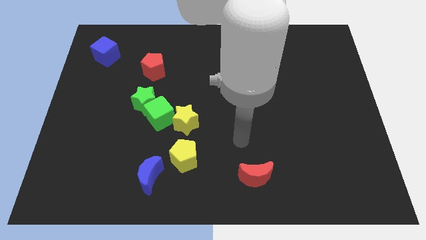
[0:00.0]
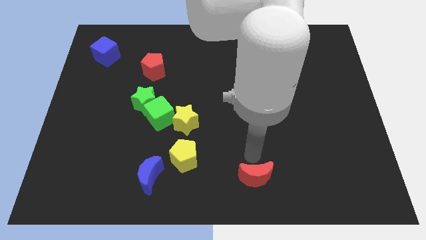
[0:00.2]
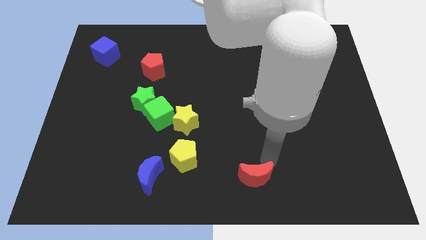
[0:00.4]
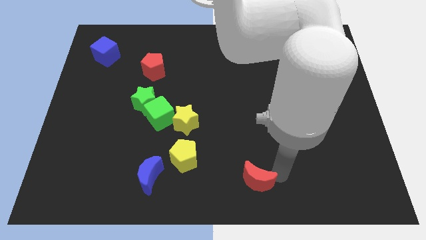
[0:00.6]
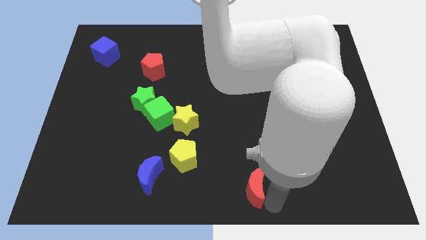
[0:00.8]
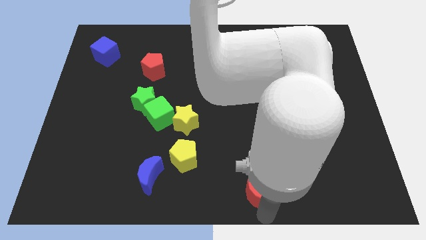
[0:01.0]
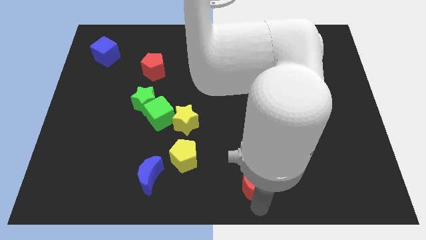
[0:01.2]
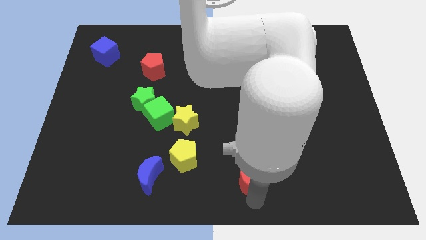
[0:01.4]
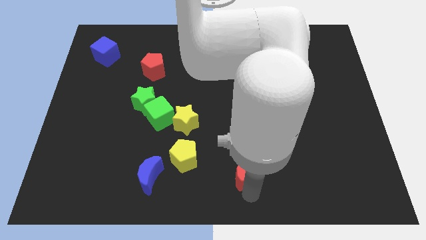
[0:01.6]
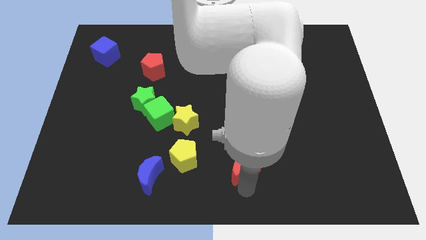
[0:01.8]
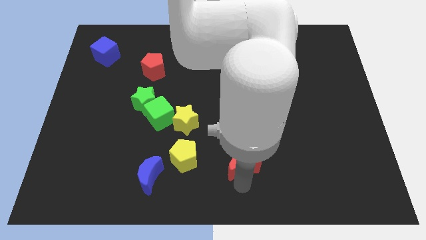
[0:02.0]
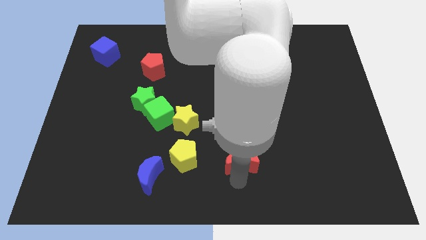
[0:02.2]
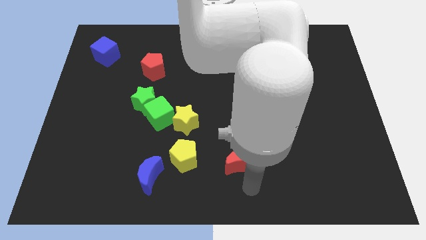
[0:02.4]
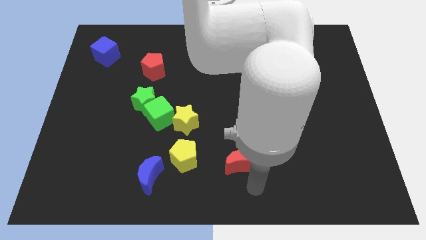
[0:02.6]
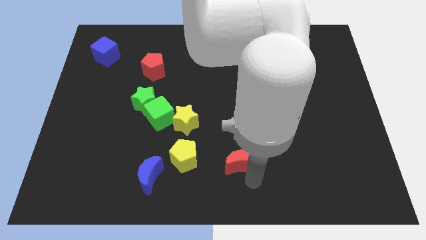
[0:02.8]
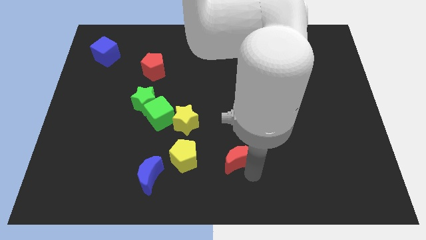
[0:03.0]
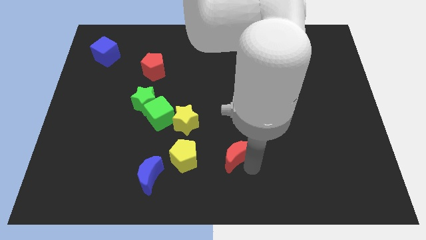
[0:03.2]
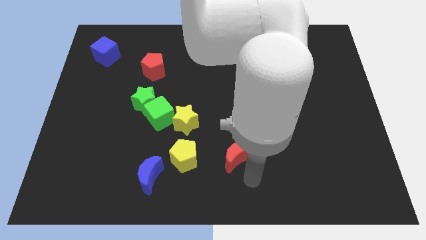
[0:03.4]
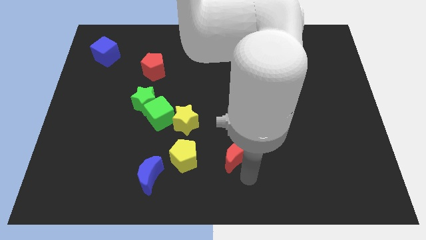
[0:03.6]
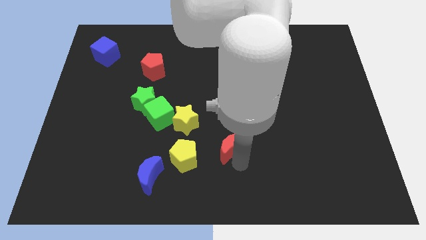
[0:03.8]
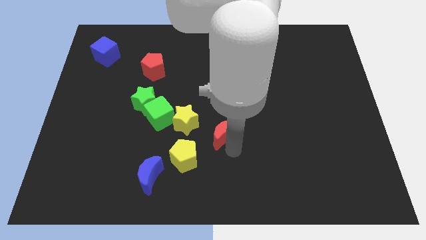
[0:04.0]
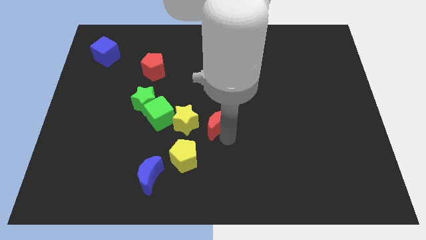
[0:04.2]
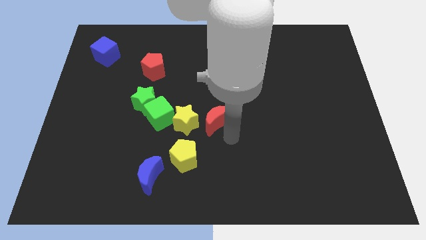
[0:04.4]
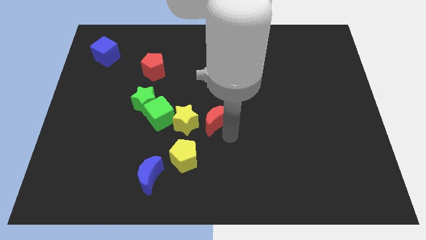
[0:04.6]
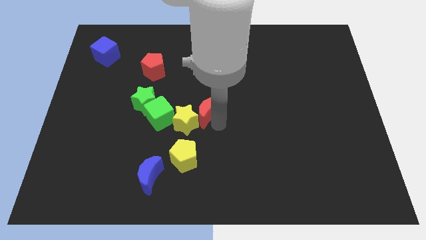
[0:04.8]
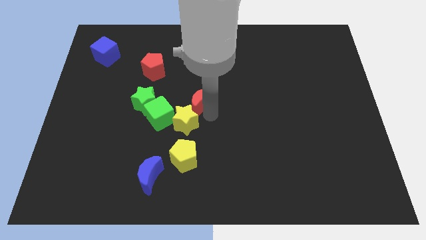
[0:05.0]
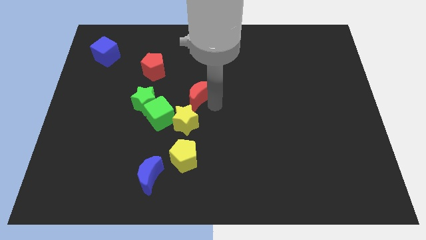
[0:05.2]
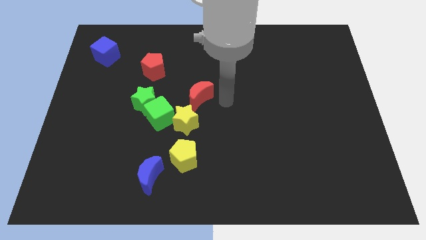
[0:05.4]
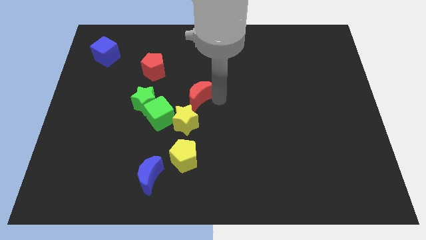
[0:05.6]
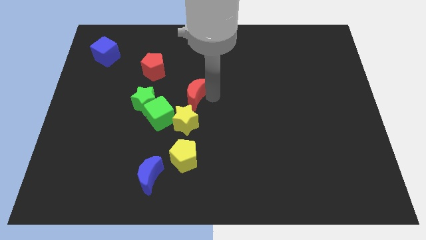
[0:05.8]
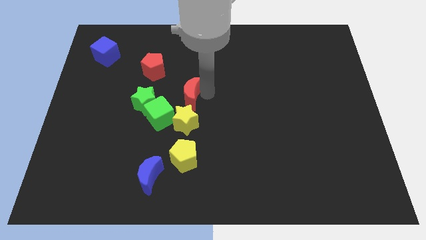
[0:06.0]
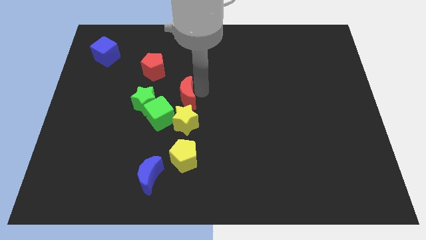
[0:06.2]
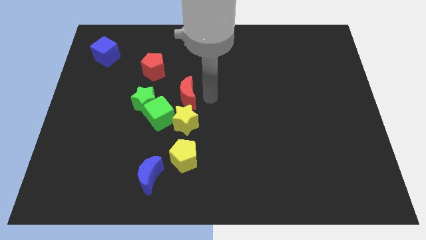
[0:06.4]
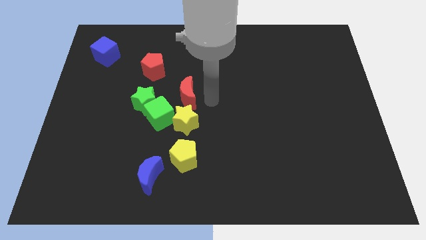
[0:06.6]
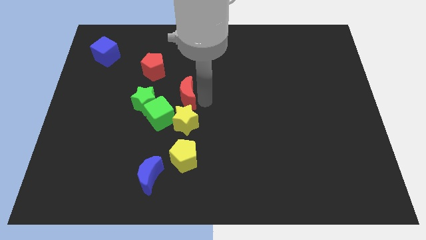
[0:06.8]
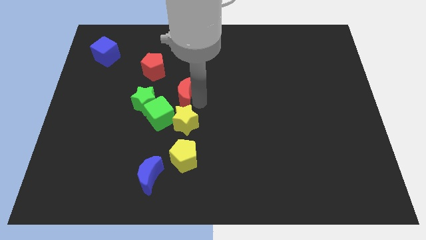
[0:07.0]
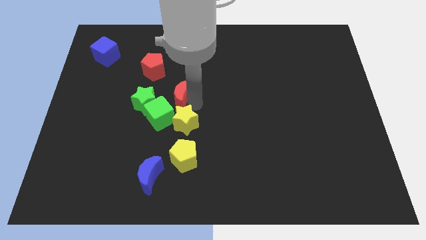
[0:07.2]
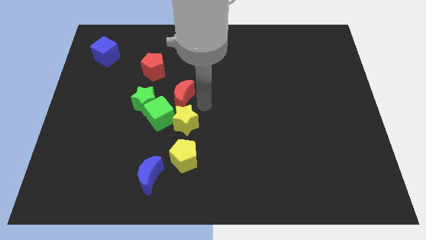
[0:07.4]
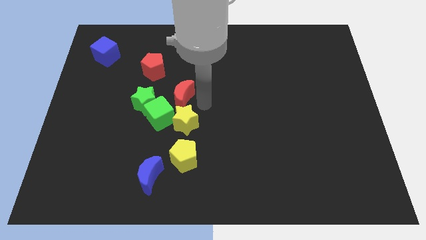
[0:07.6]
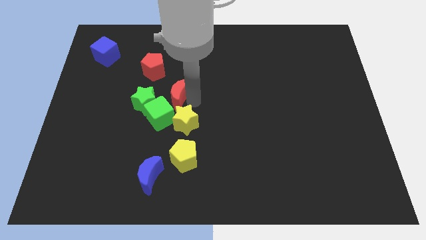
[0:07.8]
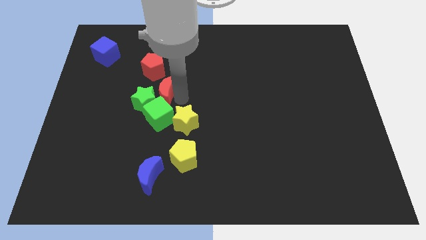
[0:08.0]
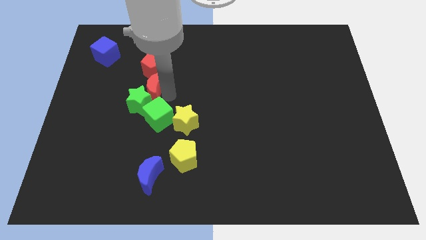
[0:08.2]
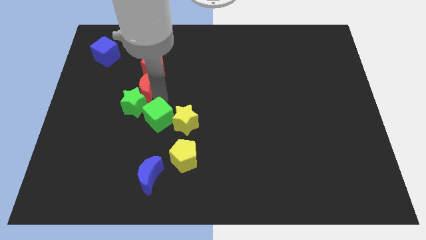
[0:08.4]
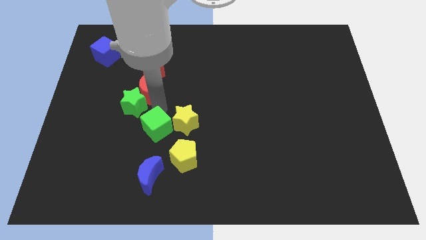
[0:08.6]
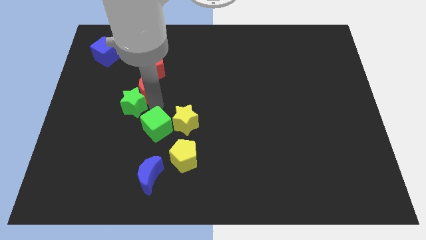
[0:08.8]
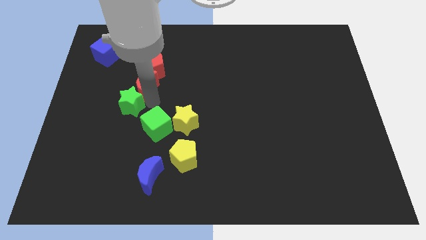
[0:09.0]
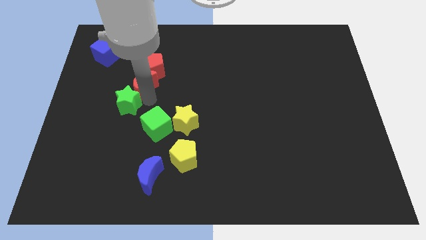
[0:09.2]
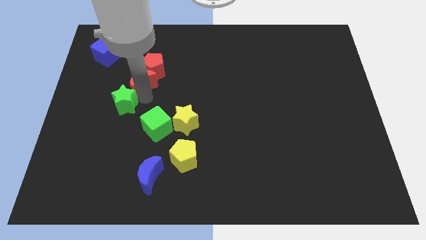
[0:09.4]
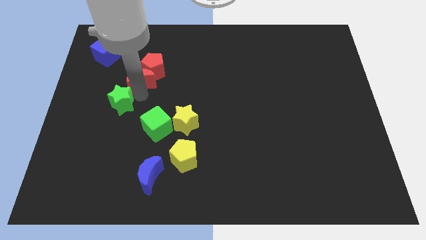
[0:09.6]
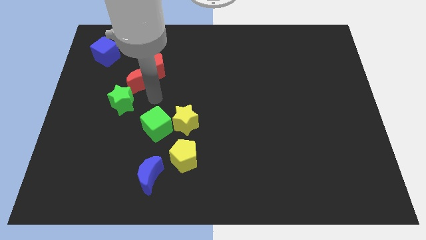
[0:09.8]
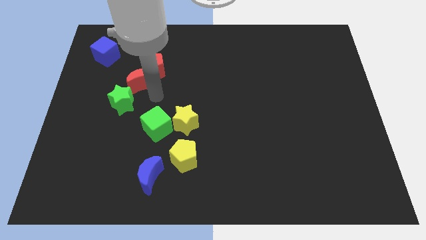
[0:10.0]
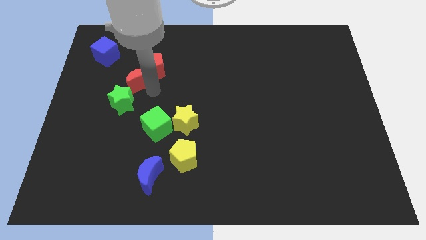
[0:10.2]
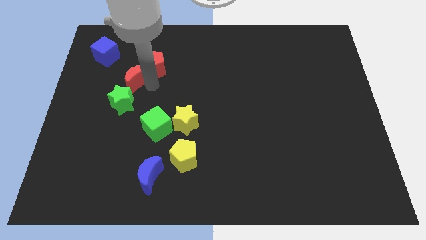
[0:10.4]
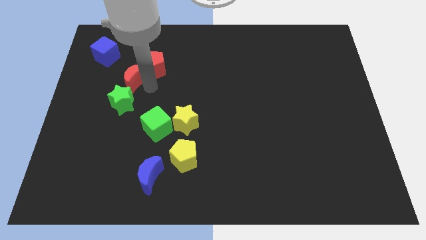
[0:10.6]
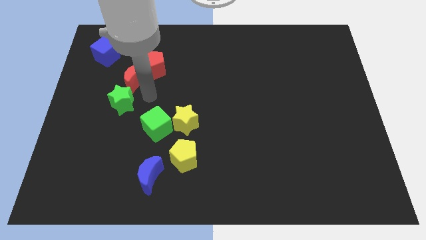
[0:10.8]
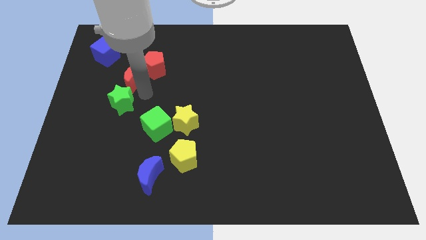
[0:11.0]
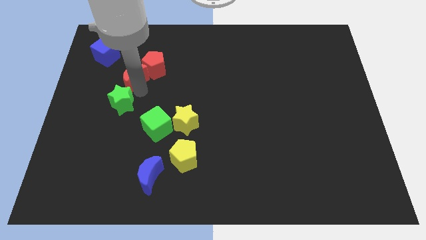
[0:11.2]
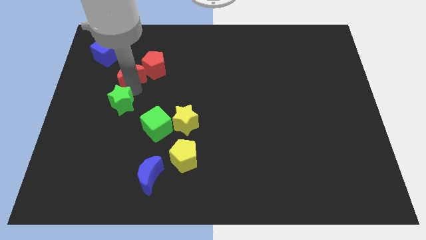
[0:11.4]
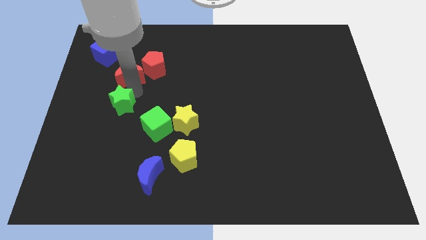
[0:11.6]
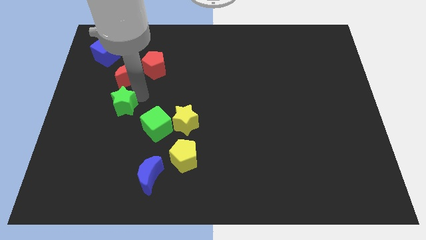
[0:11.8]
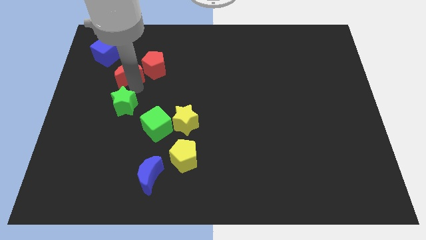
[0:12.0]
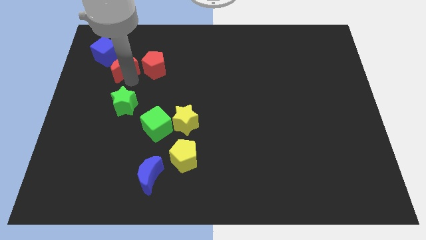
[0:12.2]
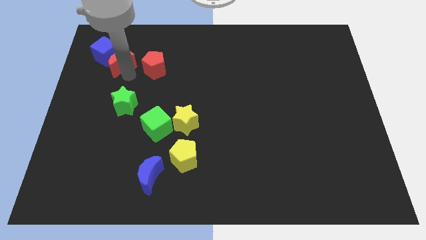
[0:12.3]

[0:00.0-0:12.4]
push the red moon next to the blue cube

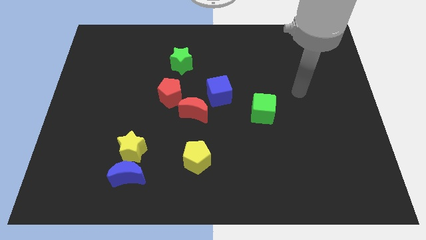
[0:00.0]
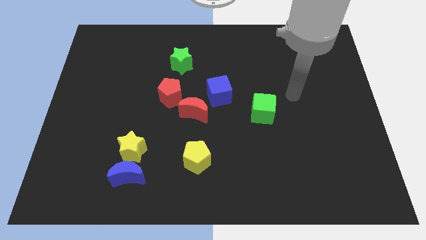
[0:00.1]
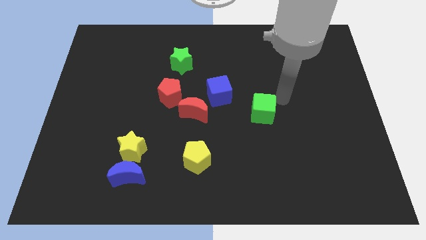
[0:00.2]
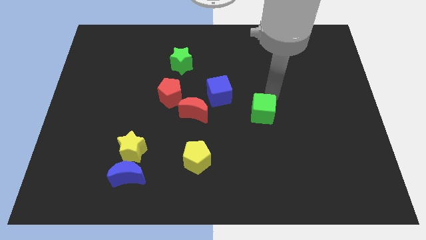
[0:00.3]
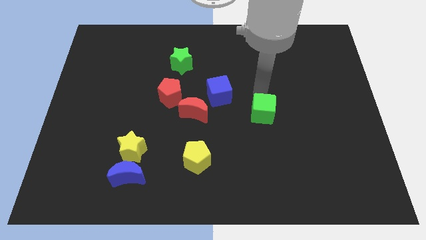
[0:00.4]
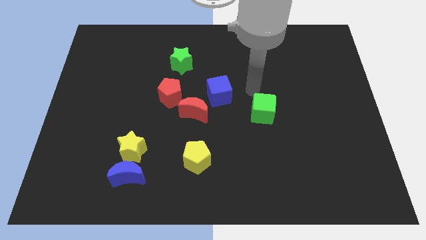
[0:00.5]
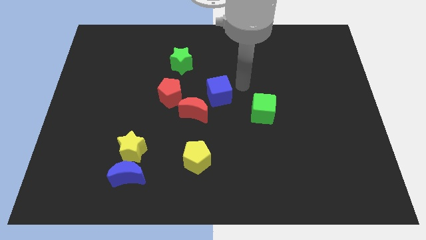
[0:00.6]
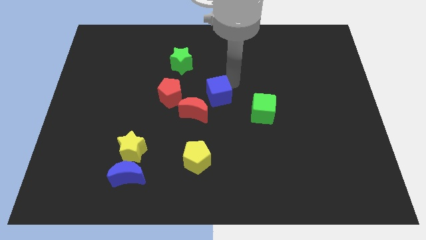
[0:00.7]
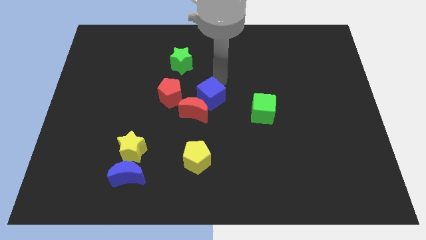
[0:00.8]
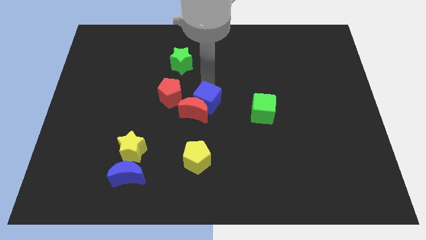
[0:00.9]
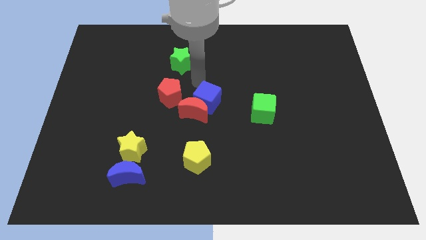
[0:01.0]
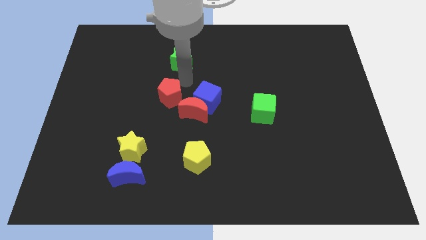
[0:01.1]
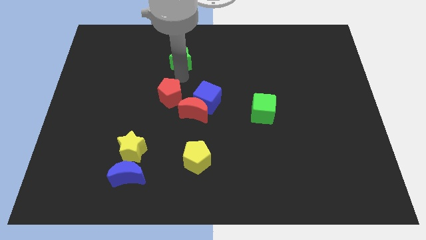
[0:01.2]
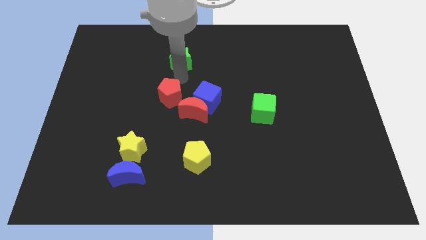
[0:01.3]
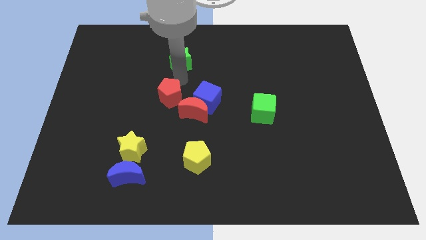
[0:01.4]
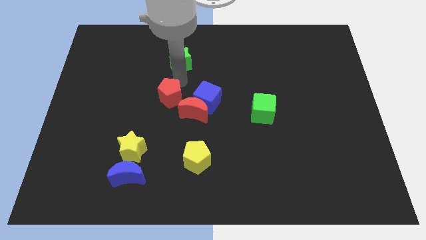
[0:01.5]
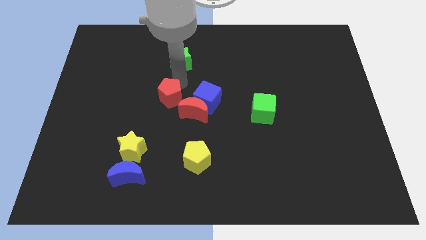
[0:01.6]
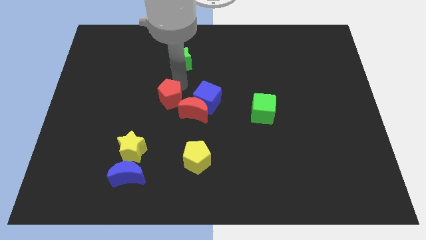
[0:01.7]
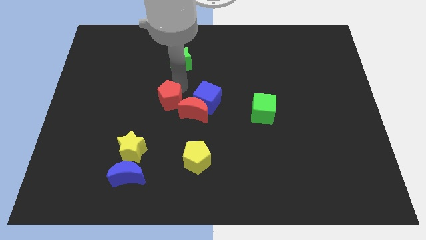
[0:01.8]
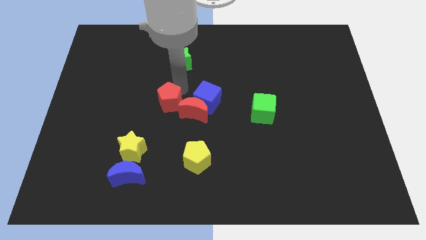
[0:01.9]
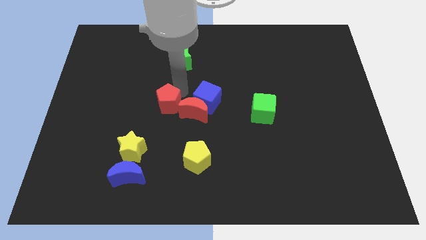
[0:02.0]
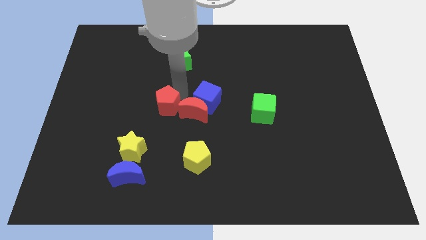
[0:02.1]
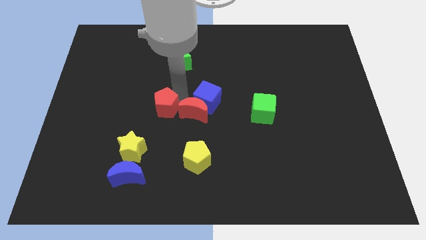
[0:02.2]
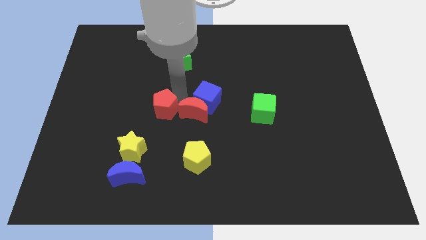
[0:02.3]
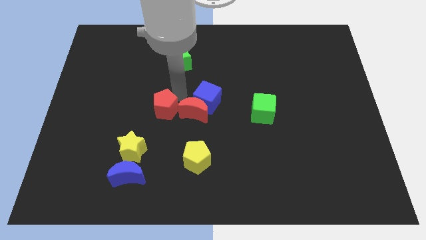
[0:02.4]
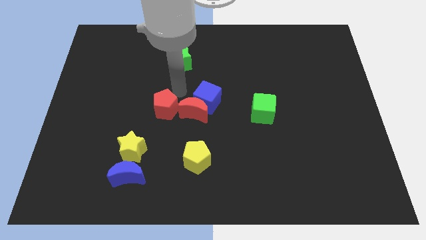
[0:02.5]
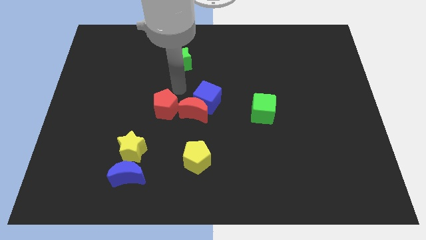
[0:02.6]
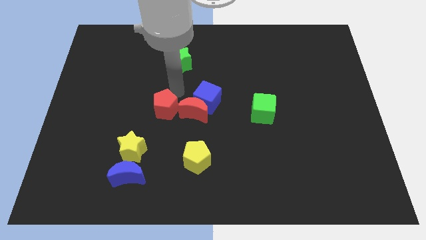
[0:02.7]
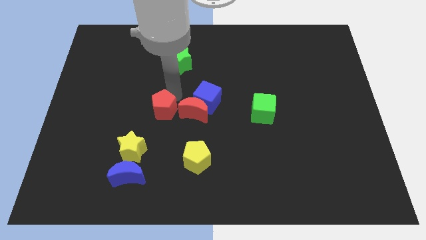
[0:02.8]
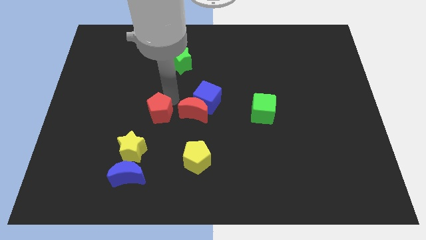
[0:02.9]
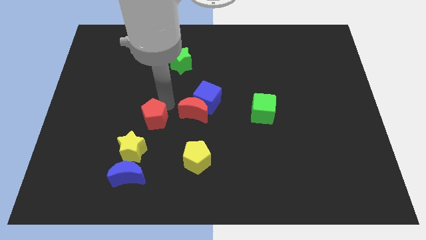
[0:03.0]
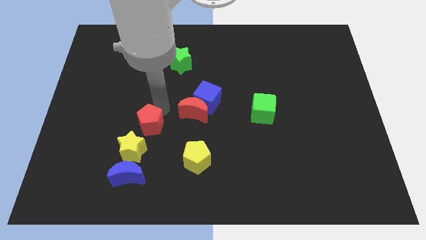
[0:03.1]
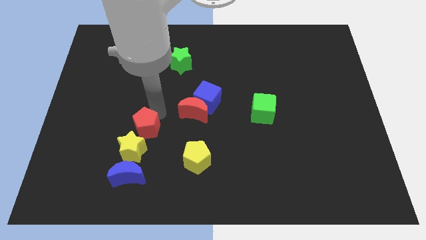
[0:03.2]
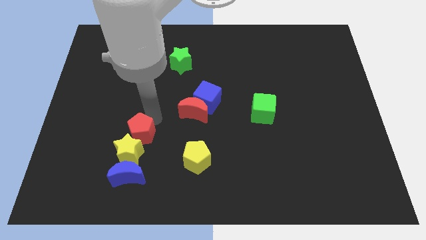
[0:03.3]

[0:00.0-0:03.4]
slide the red pentagon next to the yellow star
